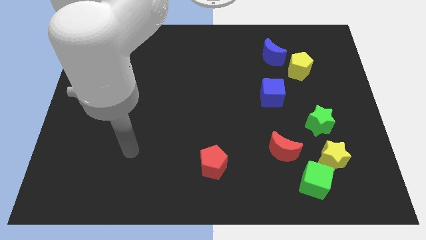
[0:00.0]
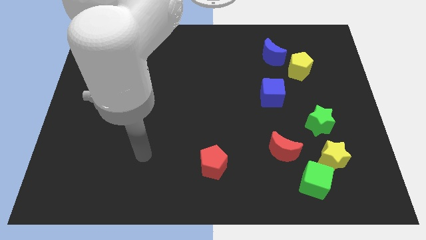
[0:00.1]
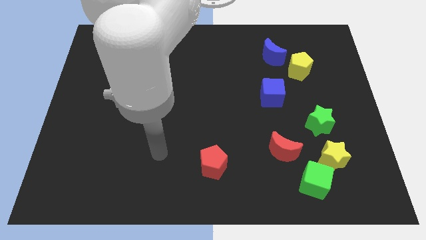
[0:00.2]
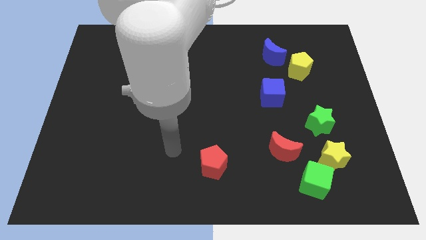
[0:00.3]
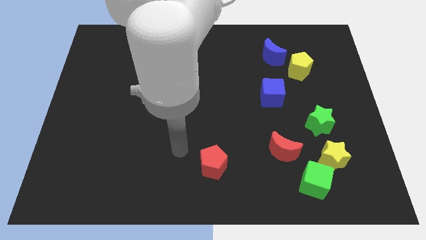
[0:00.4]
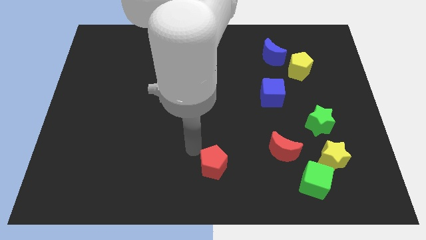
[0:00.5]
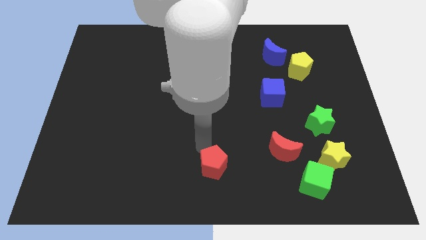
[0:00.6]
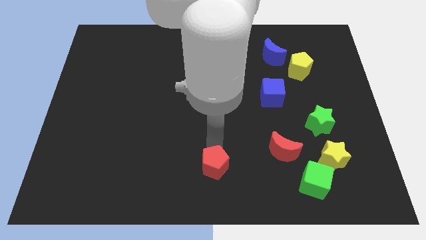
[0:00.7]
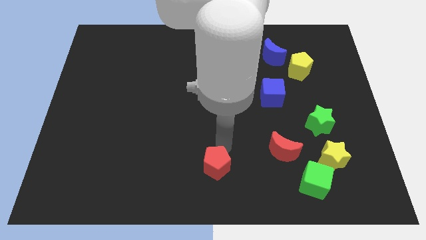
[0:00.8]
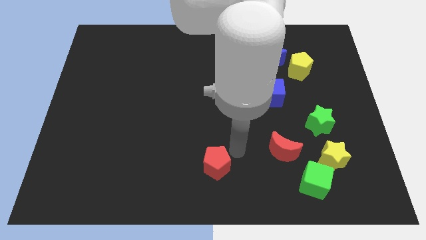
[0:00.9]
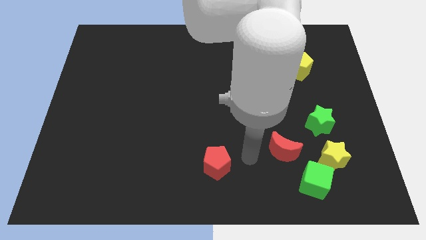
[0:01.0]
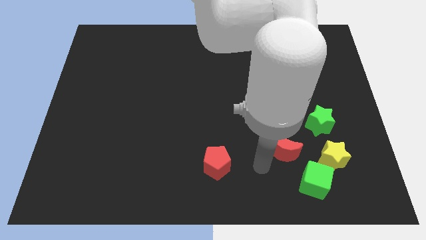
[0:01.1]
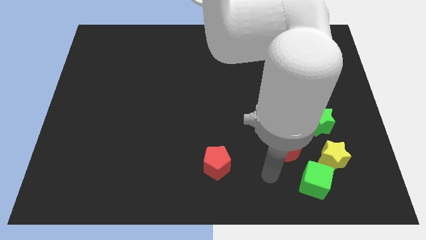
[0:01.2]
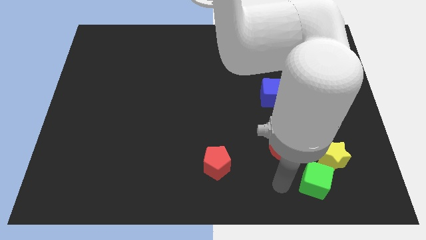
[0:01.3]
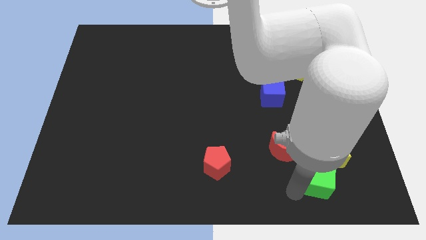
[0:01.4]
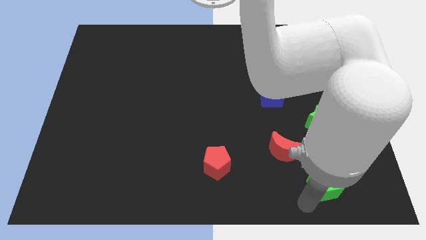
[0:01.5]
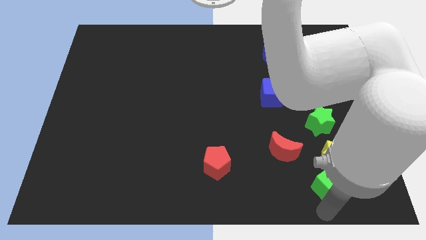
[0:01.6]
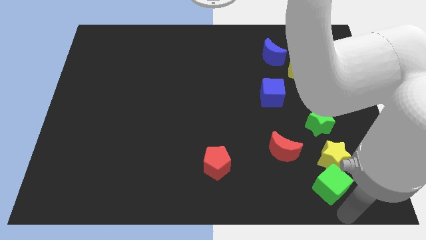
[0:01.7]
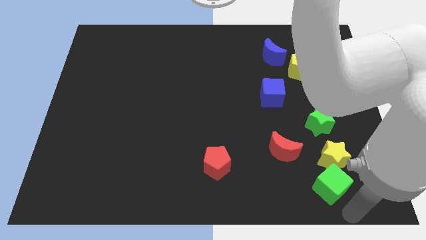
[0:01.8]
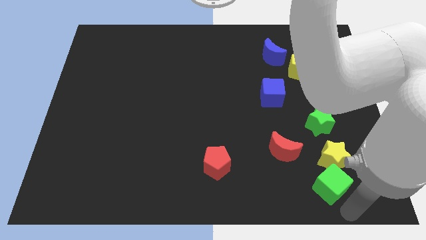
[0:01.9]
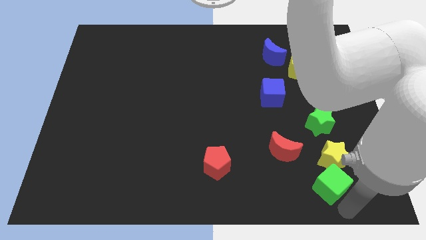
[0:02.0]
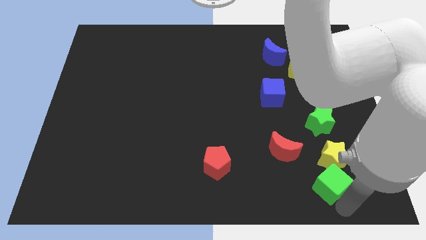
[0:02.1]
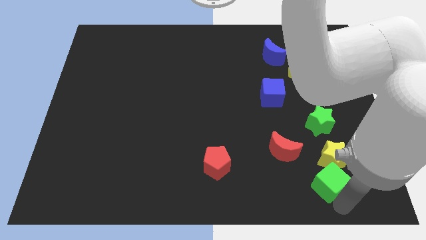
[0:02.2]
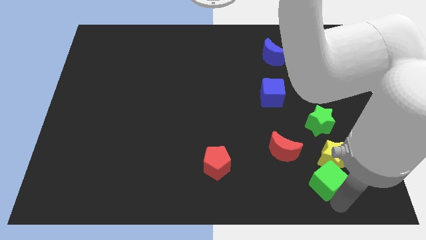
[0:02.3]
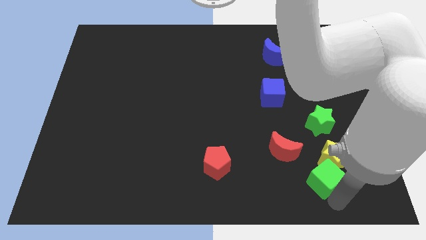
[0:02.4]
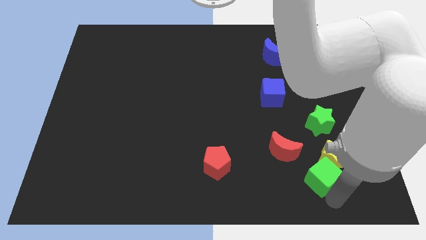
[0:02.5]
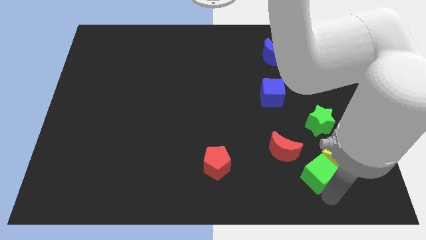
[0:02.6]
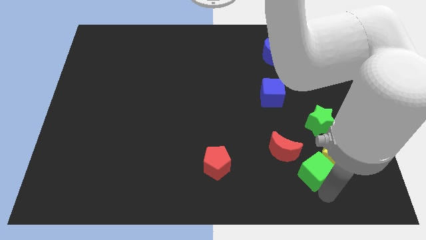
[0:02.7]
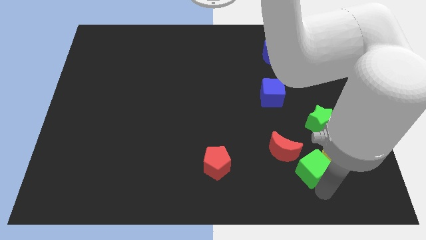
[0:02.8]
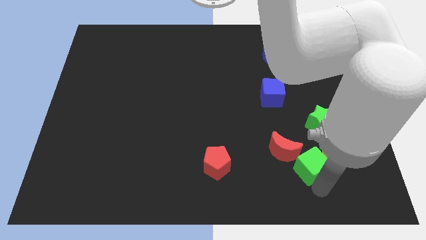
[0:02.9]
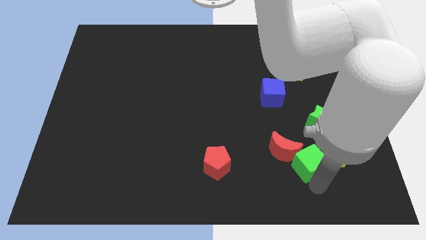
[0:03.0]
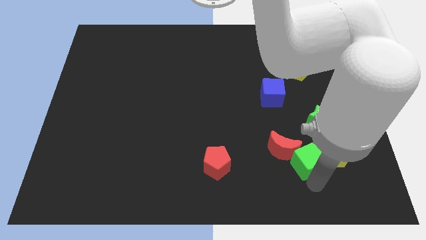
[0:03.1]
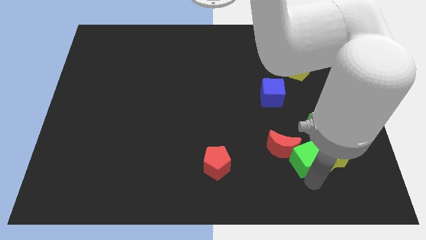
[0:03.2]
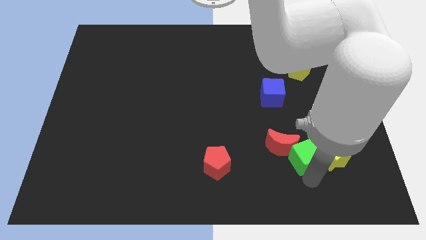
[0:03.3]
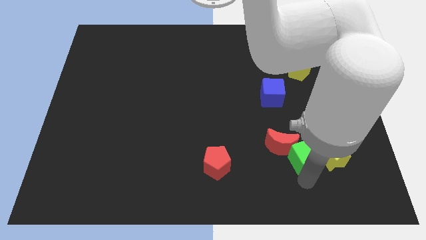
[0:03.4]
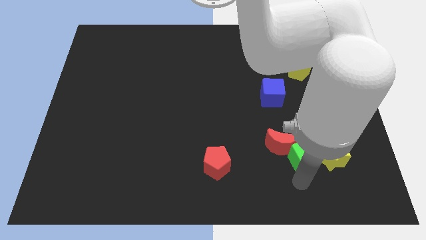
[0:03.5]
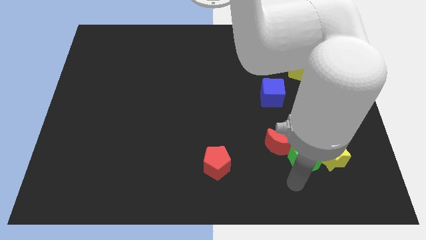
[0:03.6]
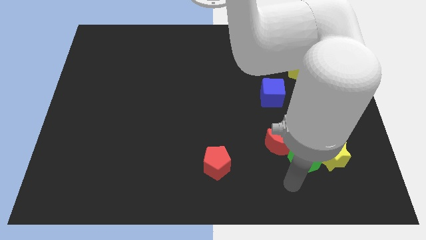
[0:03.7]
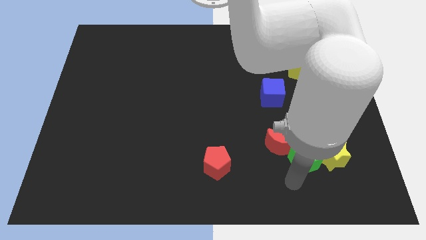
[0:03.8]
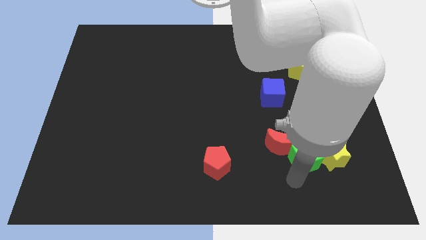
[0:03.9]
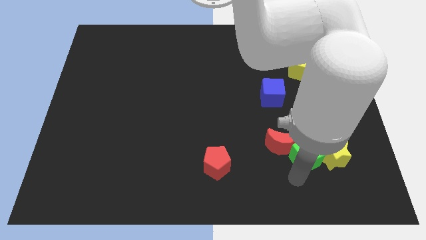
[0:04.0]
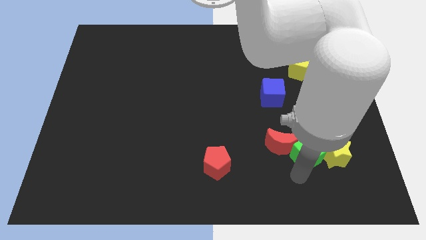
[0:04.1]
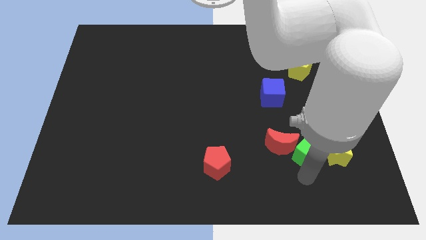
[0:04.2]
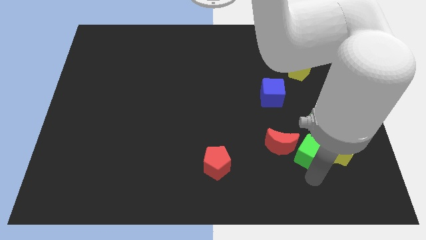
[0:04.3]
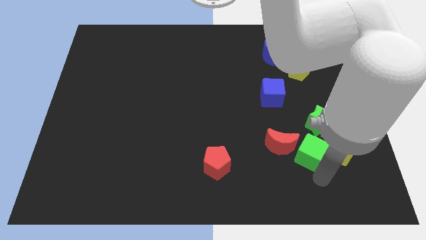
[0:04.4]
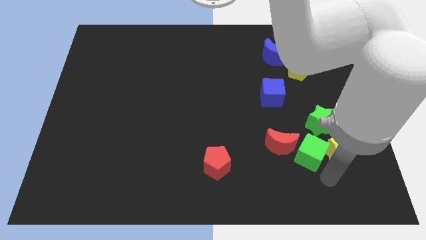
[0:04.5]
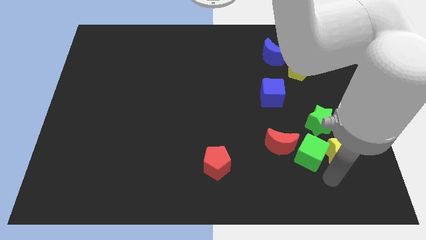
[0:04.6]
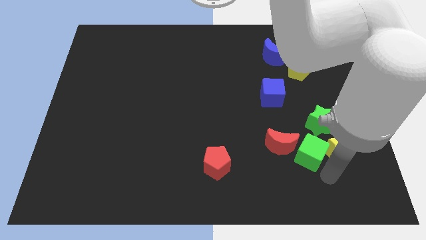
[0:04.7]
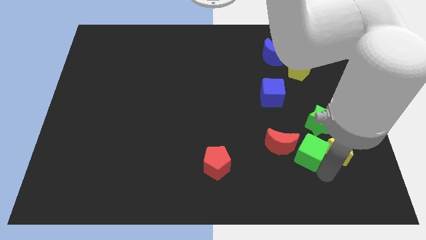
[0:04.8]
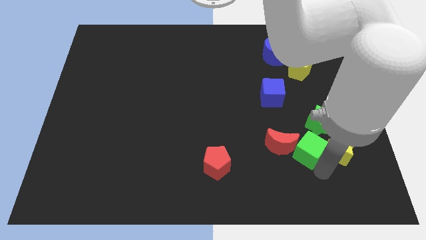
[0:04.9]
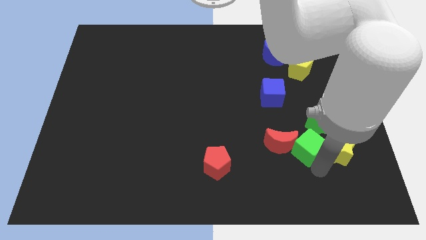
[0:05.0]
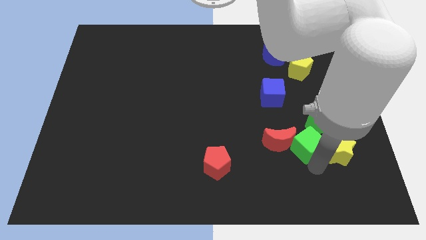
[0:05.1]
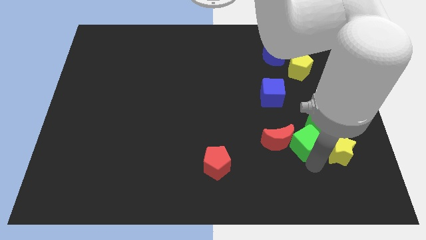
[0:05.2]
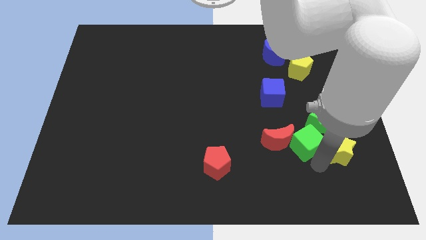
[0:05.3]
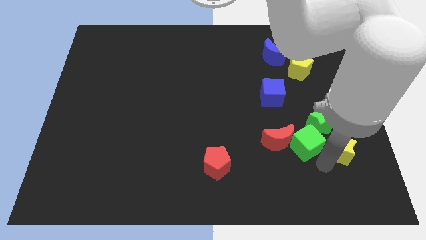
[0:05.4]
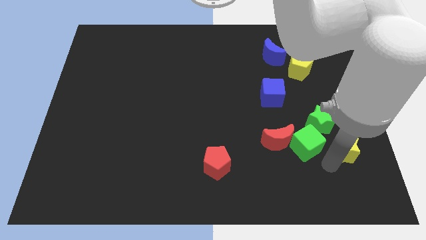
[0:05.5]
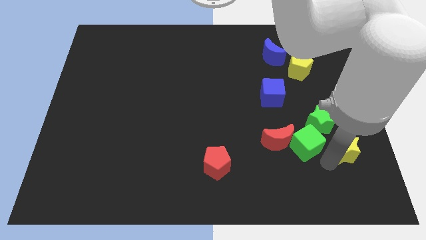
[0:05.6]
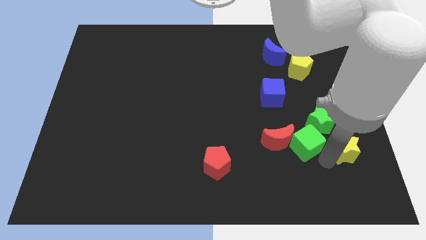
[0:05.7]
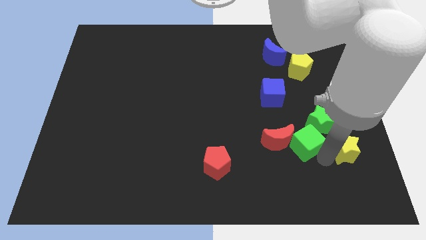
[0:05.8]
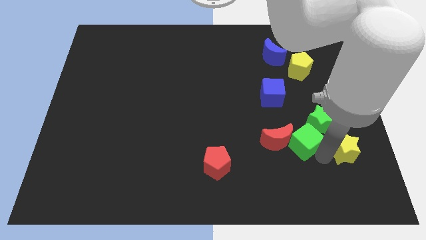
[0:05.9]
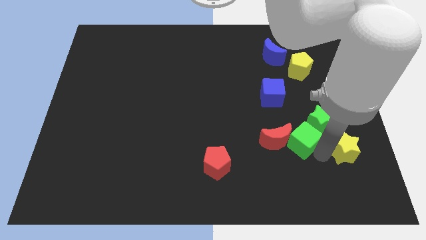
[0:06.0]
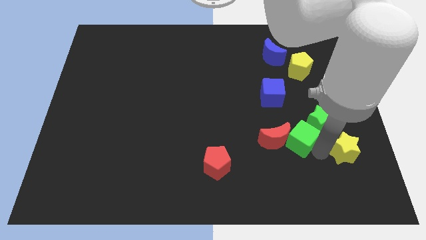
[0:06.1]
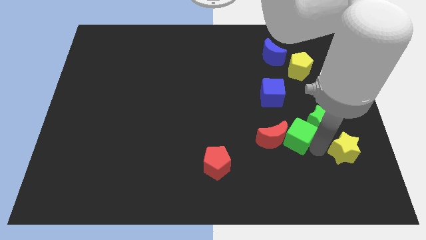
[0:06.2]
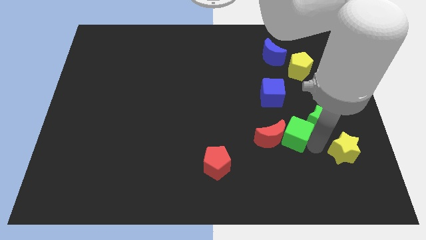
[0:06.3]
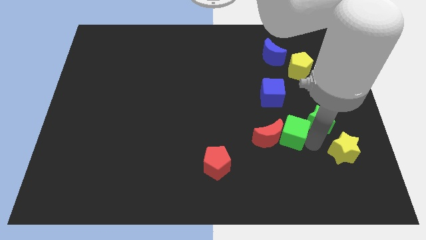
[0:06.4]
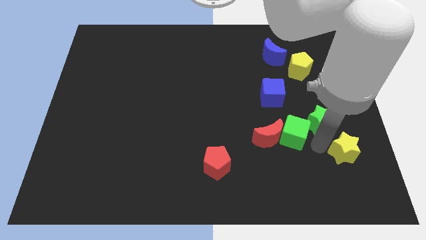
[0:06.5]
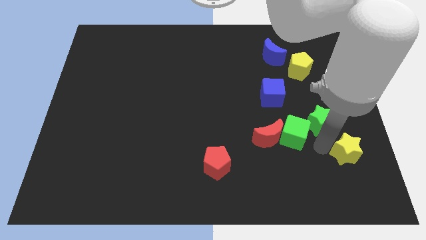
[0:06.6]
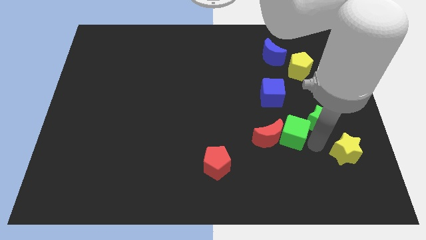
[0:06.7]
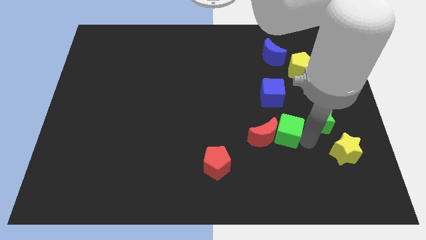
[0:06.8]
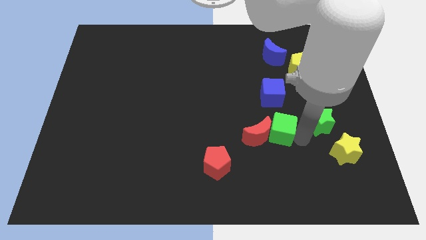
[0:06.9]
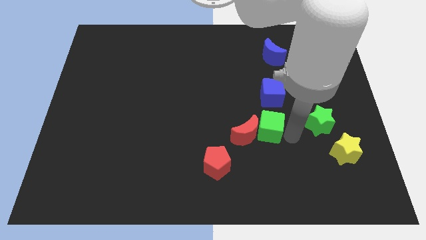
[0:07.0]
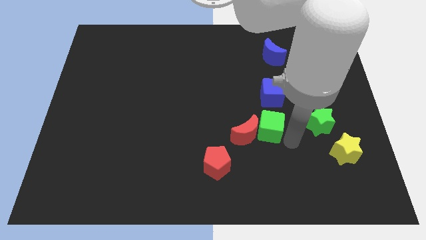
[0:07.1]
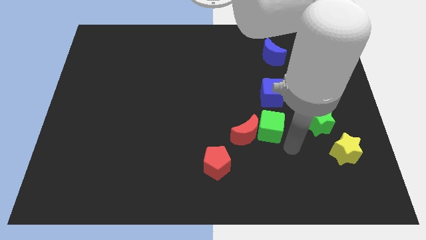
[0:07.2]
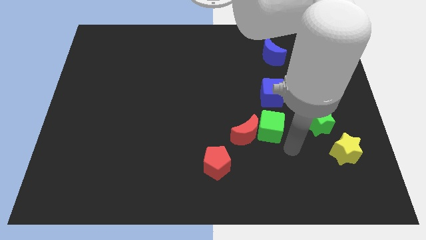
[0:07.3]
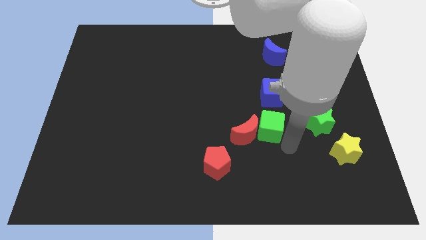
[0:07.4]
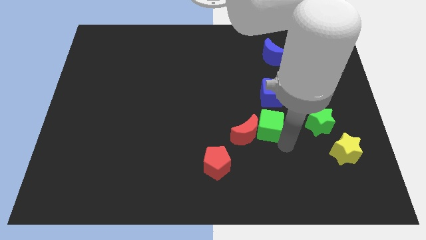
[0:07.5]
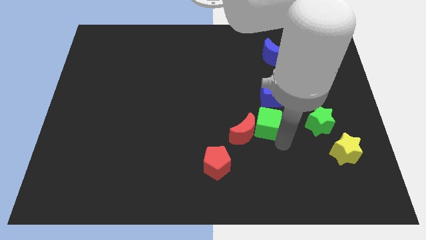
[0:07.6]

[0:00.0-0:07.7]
move the green cube to the bottom left of the blue cube

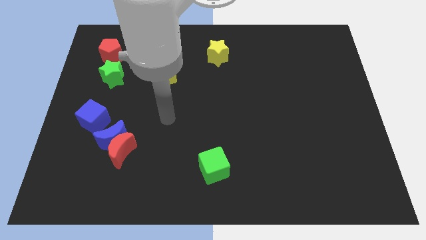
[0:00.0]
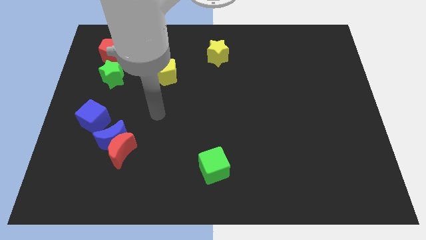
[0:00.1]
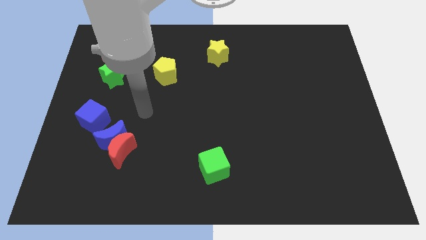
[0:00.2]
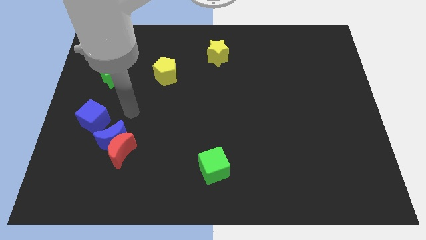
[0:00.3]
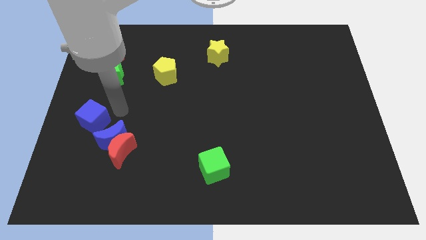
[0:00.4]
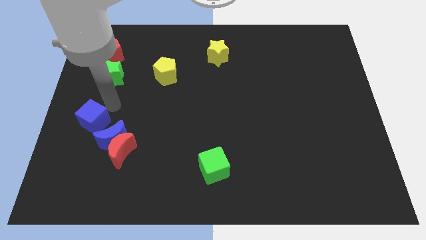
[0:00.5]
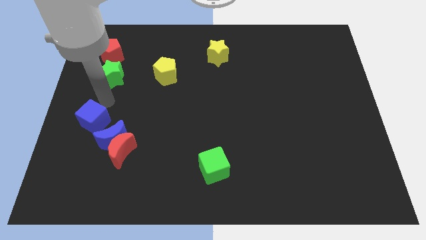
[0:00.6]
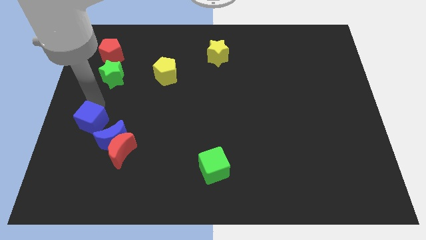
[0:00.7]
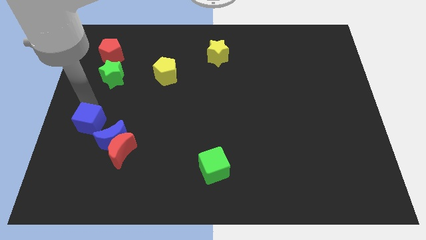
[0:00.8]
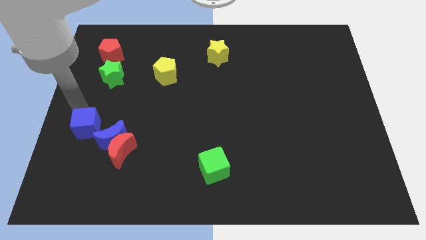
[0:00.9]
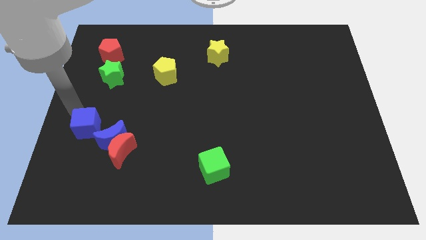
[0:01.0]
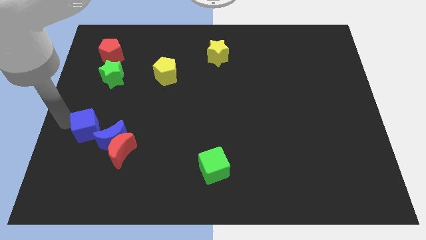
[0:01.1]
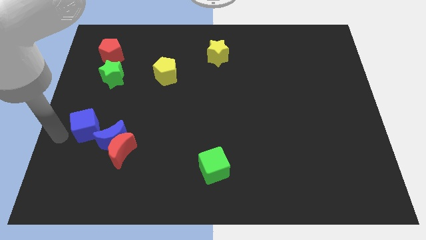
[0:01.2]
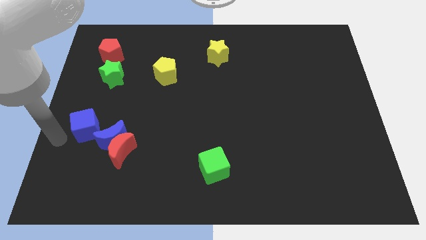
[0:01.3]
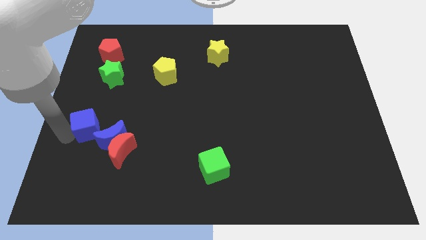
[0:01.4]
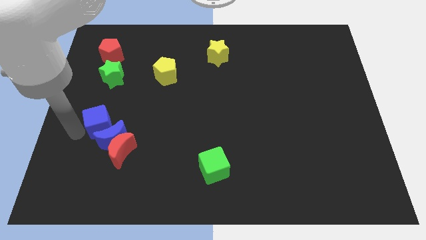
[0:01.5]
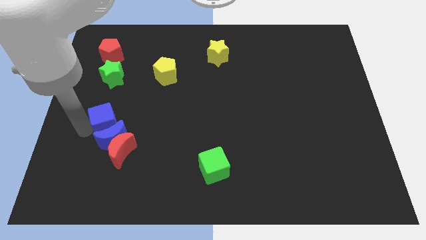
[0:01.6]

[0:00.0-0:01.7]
slide the blue cube above the red moon
